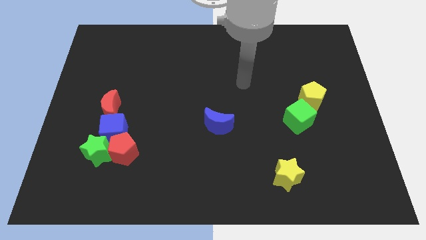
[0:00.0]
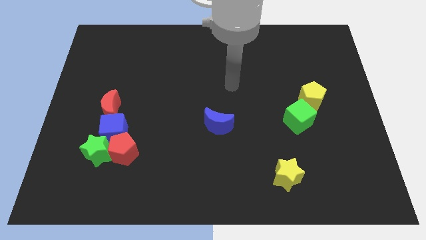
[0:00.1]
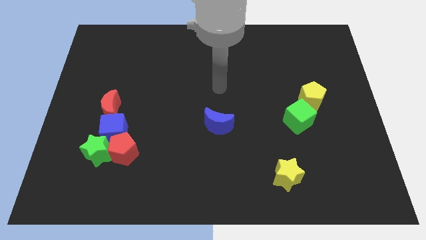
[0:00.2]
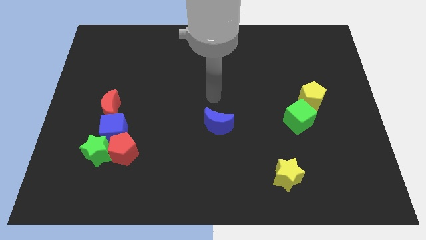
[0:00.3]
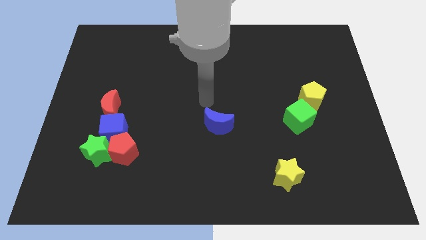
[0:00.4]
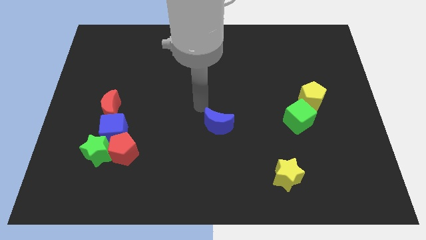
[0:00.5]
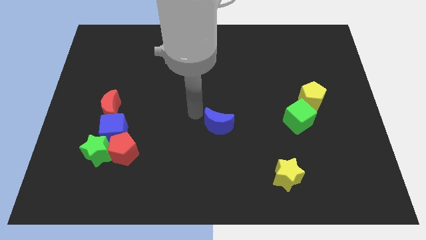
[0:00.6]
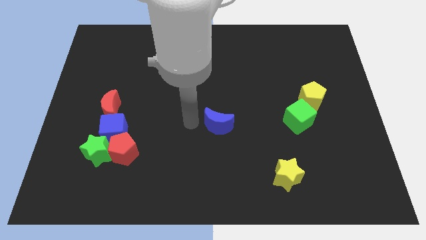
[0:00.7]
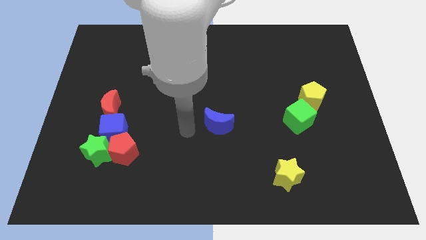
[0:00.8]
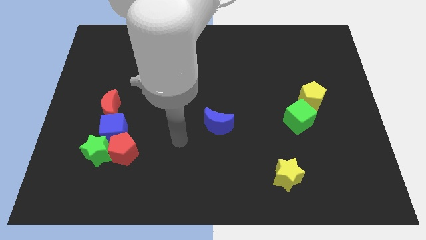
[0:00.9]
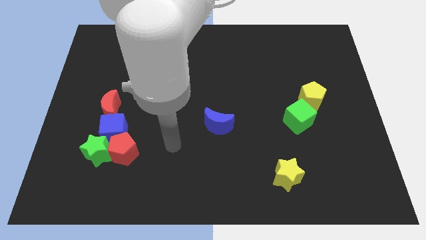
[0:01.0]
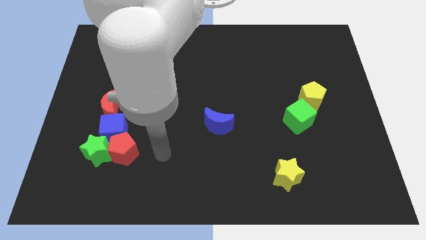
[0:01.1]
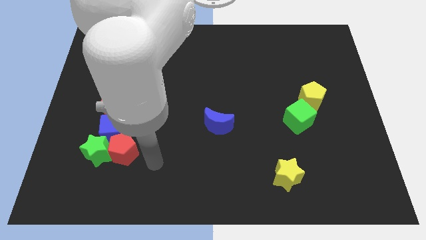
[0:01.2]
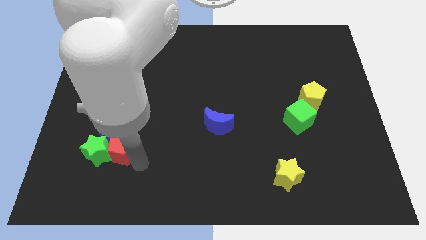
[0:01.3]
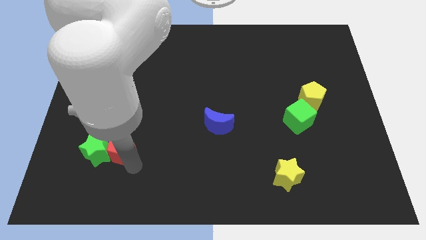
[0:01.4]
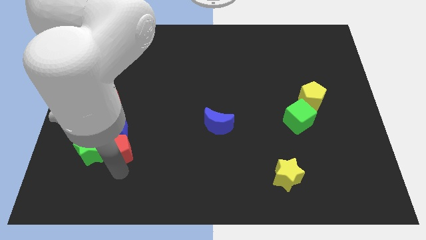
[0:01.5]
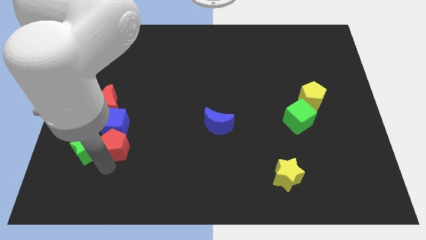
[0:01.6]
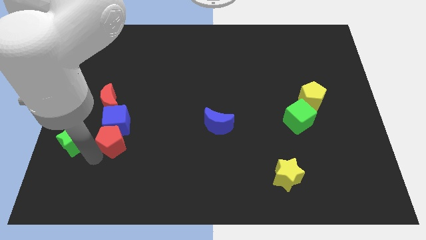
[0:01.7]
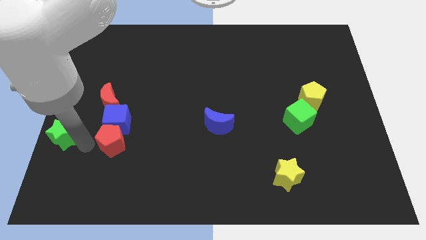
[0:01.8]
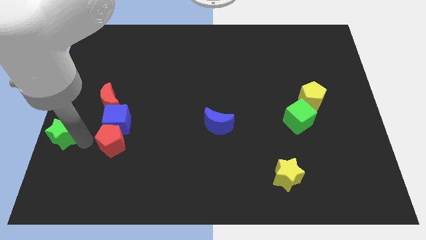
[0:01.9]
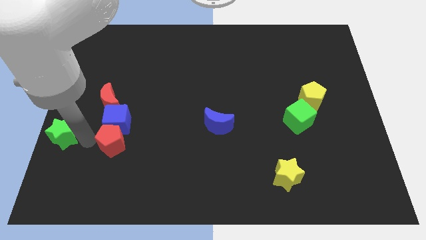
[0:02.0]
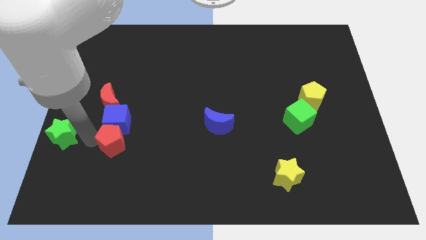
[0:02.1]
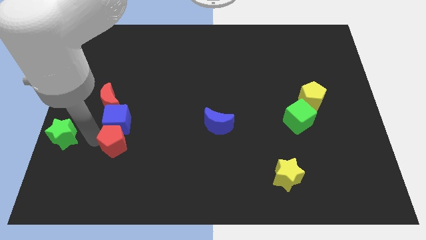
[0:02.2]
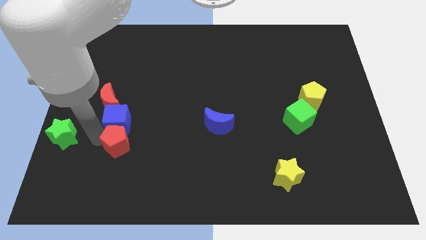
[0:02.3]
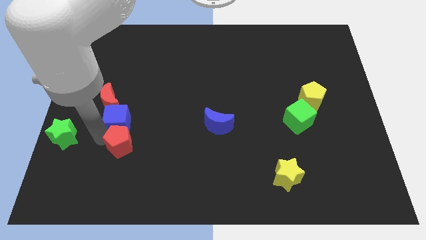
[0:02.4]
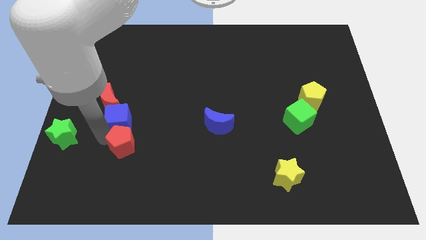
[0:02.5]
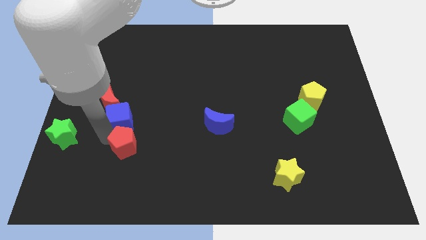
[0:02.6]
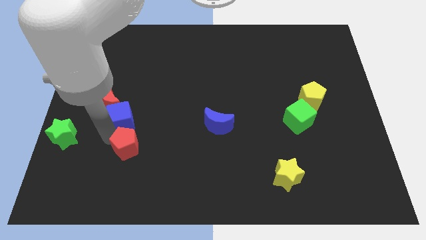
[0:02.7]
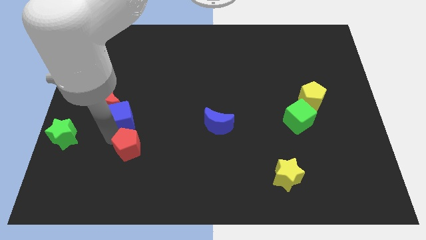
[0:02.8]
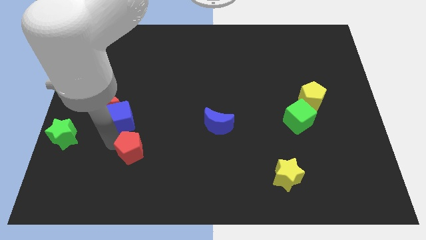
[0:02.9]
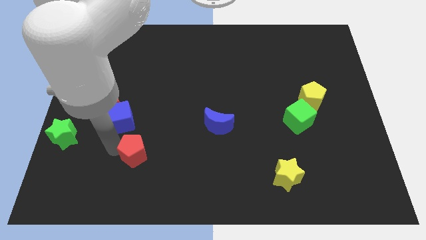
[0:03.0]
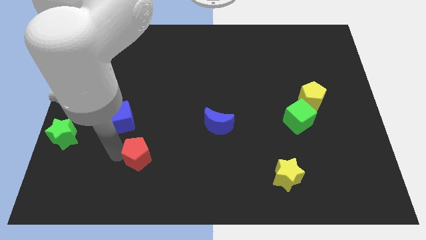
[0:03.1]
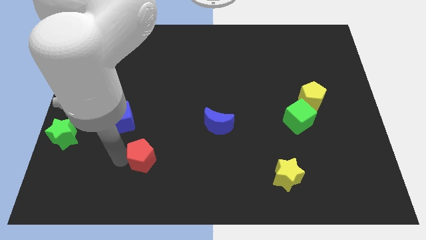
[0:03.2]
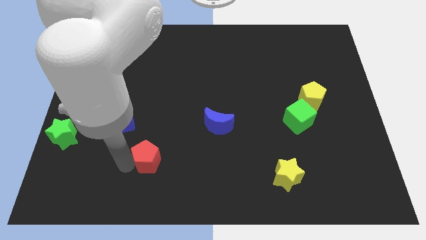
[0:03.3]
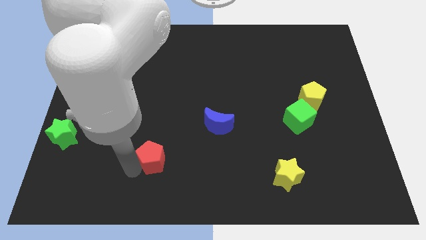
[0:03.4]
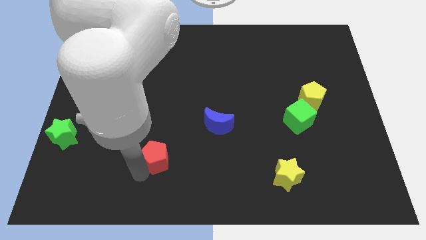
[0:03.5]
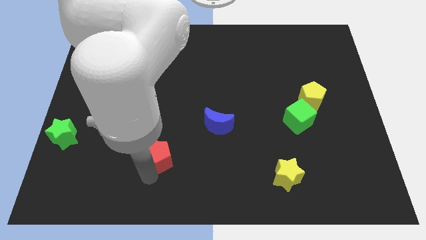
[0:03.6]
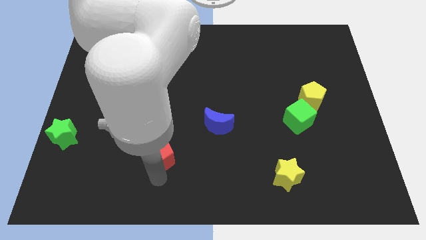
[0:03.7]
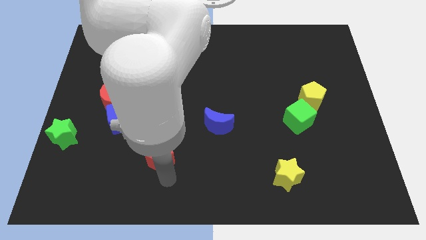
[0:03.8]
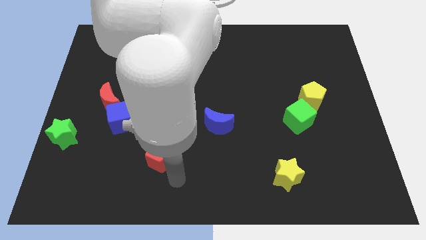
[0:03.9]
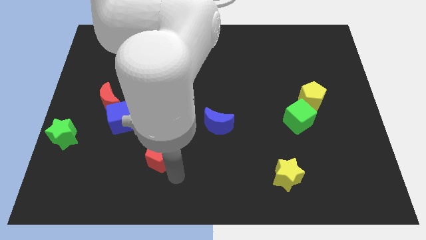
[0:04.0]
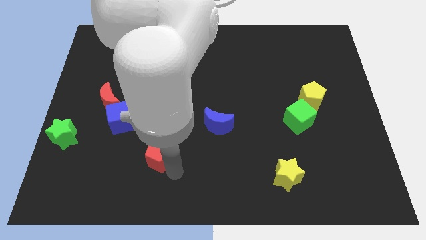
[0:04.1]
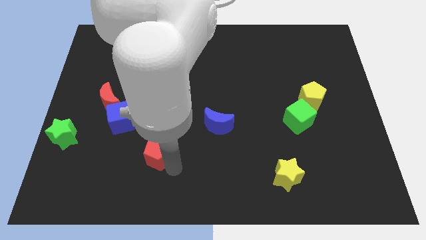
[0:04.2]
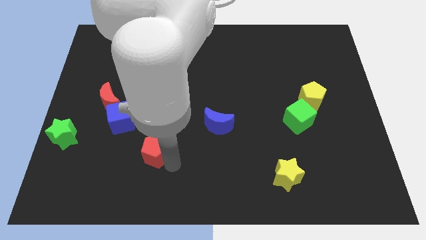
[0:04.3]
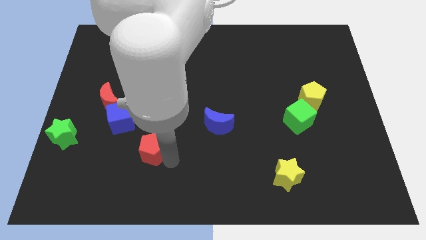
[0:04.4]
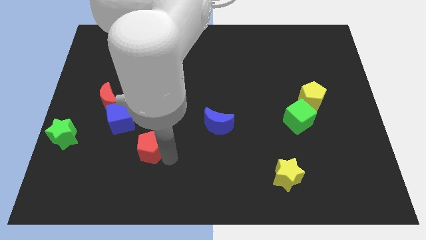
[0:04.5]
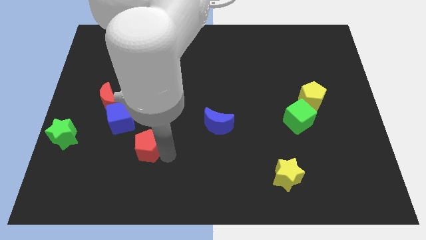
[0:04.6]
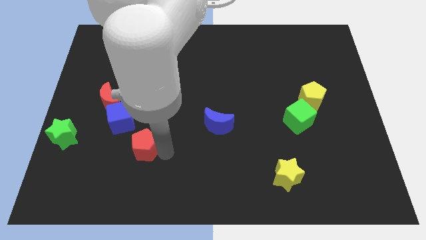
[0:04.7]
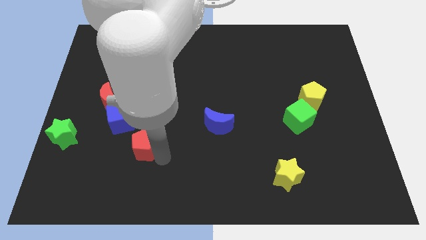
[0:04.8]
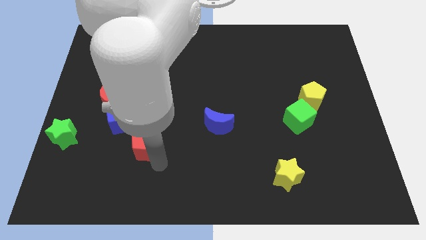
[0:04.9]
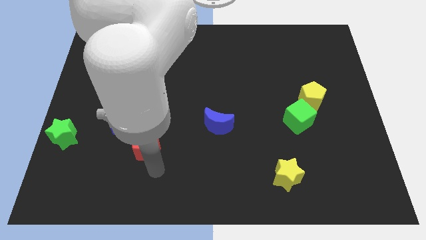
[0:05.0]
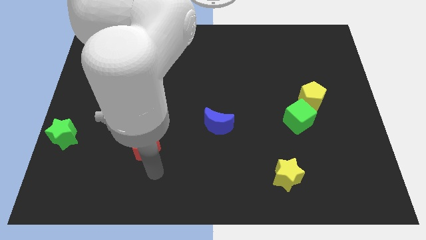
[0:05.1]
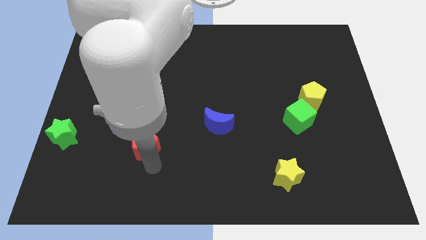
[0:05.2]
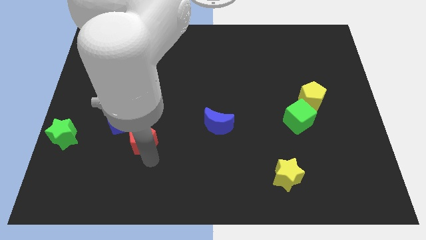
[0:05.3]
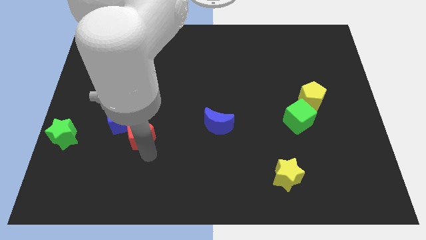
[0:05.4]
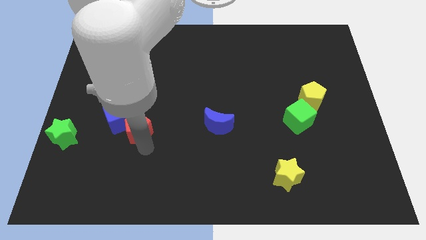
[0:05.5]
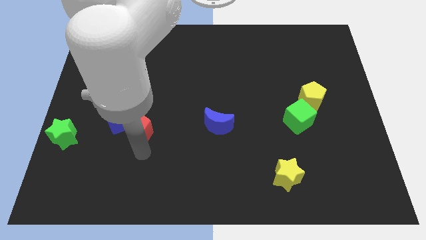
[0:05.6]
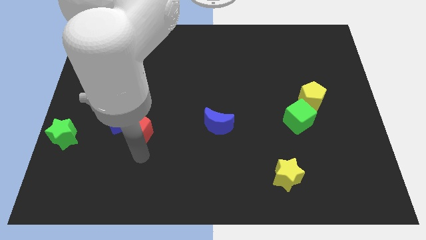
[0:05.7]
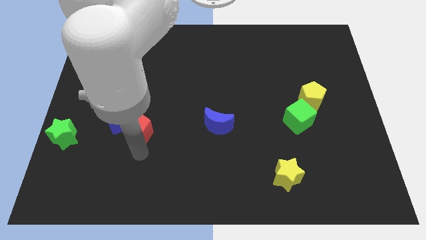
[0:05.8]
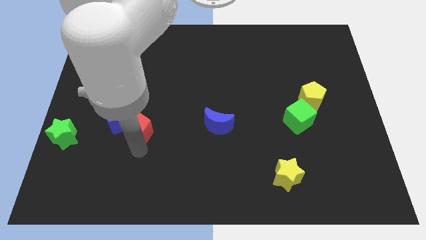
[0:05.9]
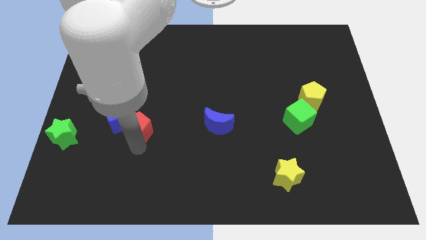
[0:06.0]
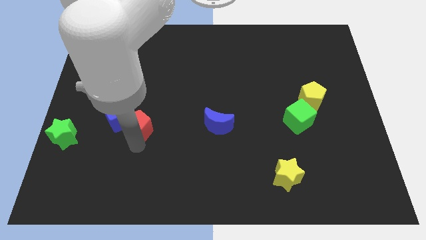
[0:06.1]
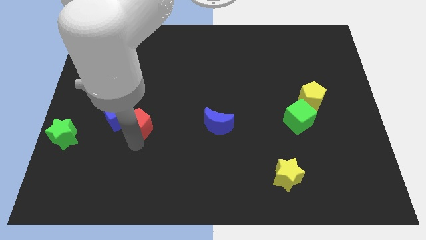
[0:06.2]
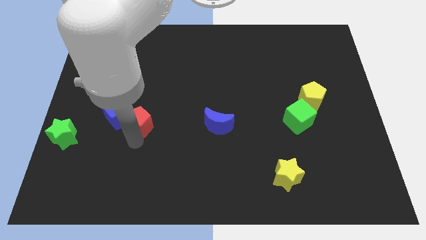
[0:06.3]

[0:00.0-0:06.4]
slightly move the red pentagon upwards

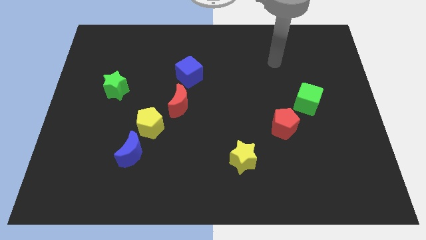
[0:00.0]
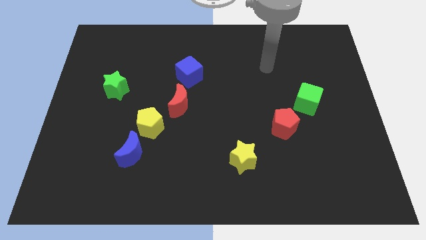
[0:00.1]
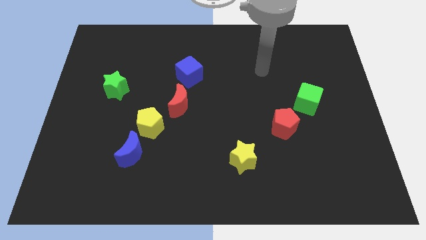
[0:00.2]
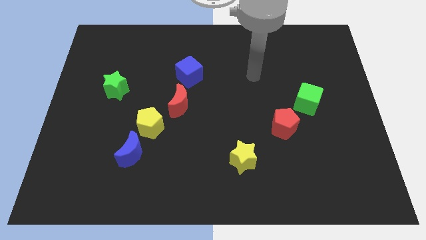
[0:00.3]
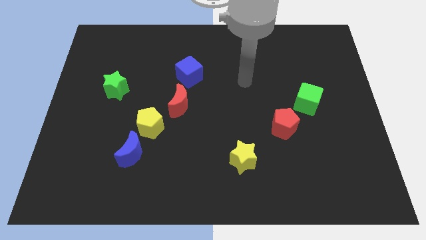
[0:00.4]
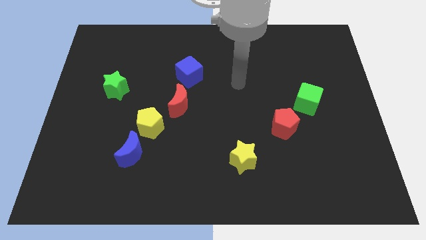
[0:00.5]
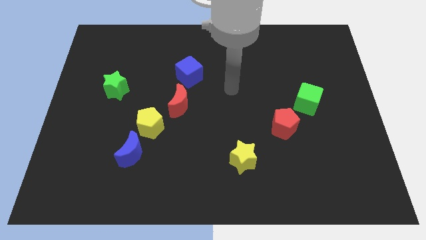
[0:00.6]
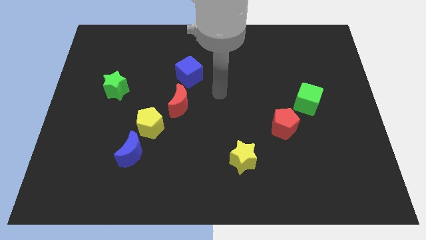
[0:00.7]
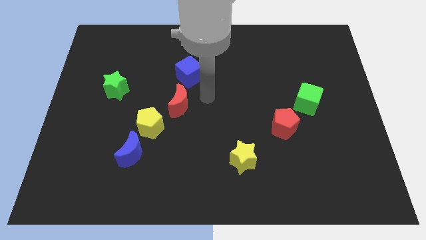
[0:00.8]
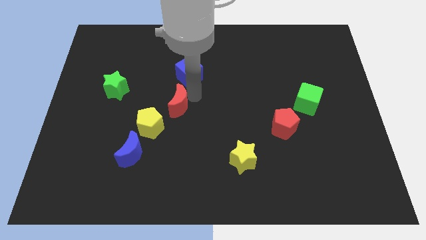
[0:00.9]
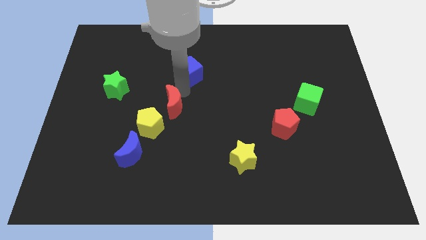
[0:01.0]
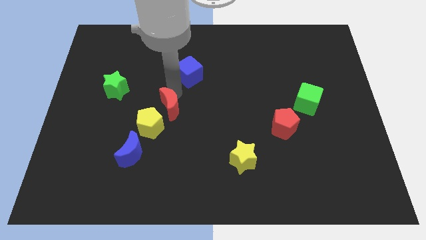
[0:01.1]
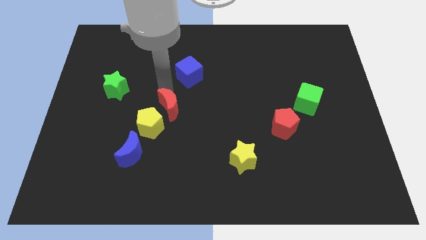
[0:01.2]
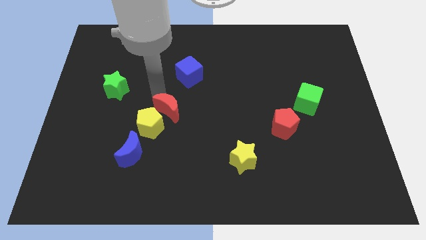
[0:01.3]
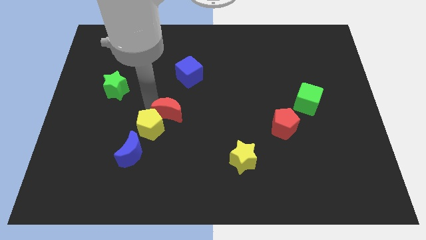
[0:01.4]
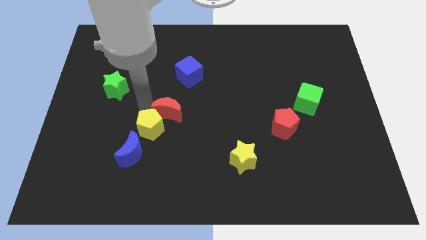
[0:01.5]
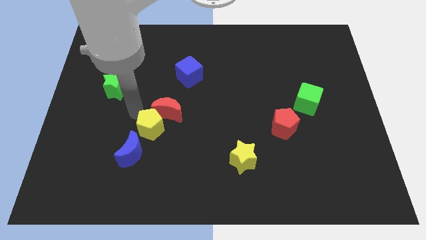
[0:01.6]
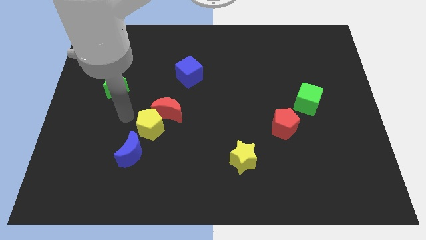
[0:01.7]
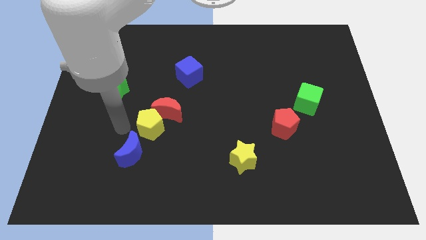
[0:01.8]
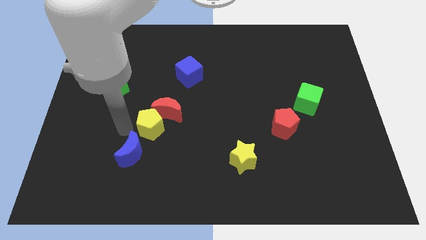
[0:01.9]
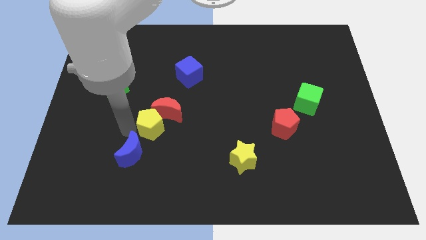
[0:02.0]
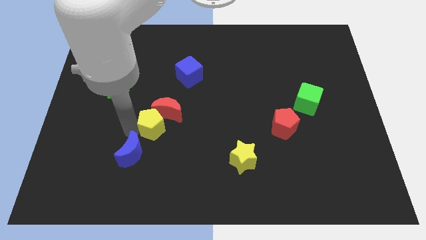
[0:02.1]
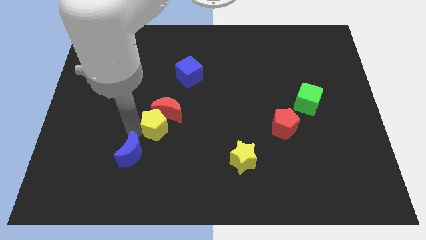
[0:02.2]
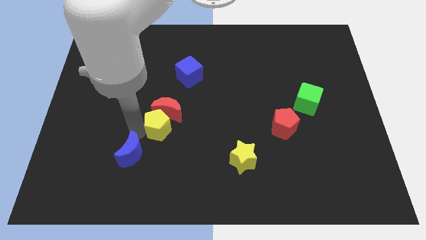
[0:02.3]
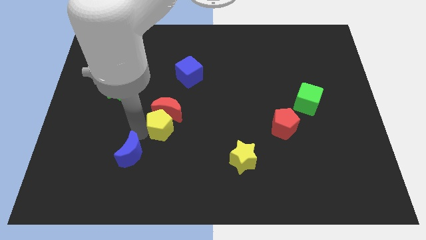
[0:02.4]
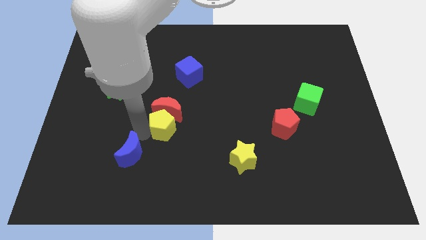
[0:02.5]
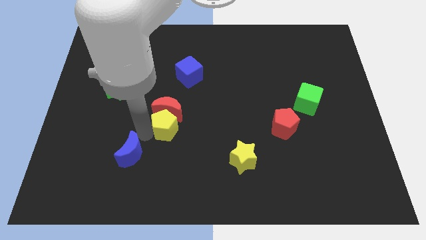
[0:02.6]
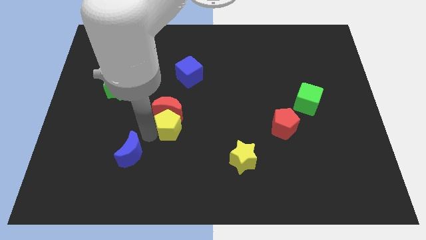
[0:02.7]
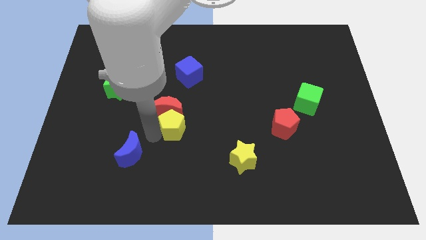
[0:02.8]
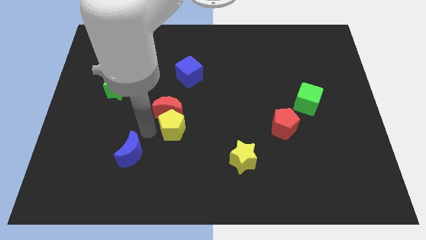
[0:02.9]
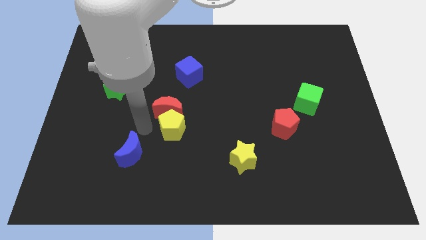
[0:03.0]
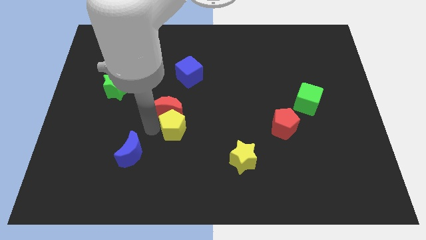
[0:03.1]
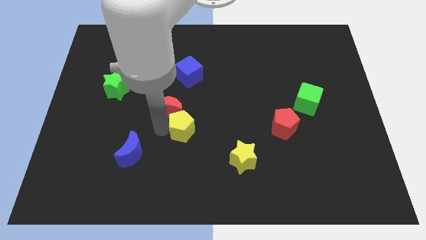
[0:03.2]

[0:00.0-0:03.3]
push the yellow pentagon slightly right
